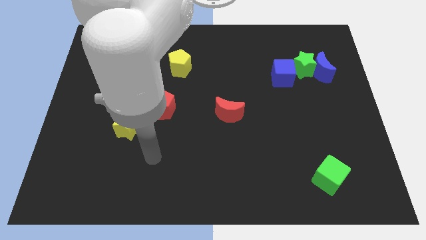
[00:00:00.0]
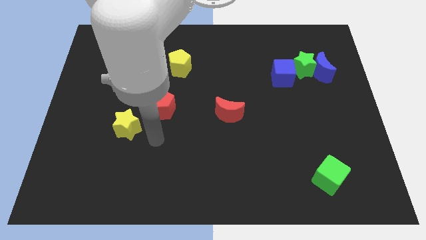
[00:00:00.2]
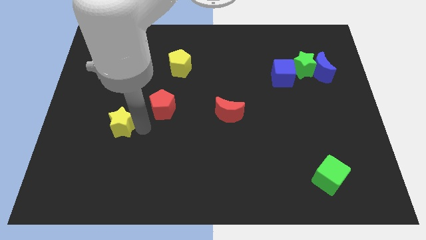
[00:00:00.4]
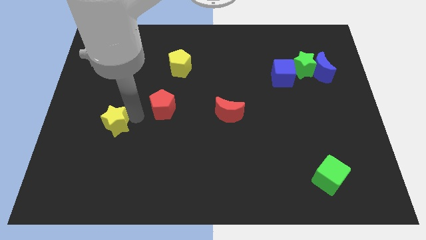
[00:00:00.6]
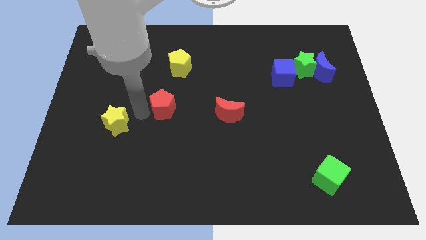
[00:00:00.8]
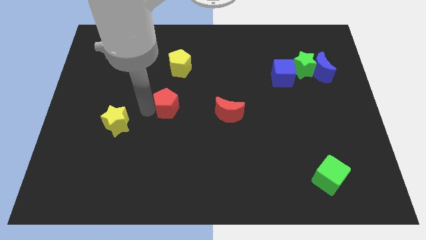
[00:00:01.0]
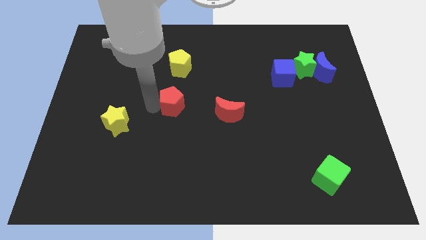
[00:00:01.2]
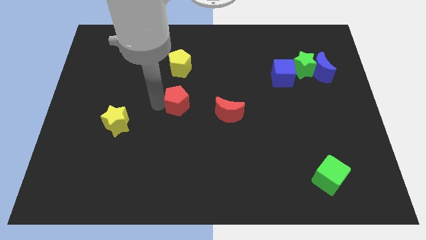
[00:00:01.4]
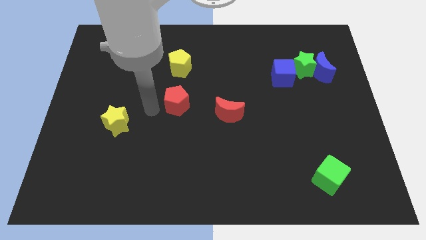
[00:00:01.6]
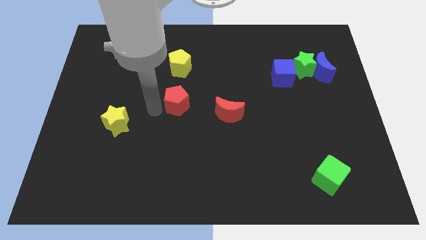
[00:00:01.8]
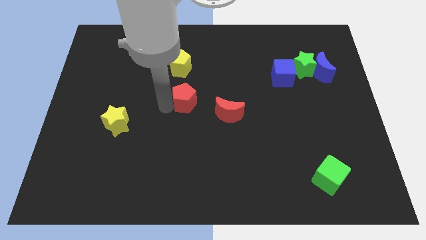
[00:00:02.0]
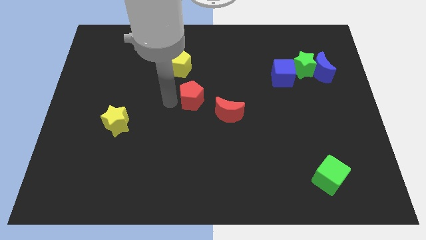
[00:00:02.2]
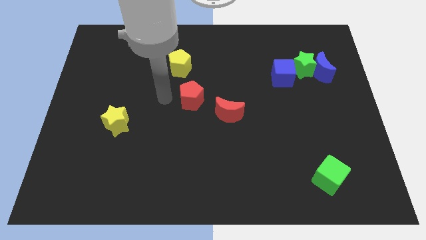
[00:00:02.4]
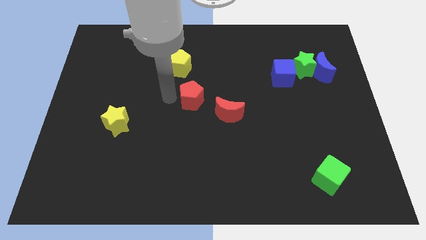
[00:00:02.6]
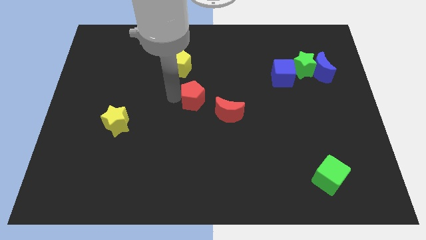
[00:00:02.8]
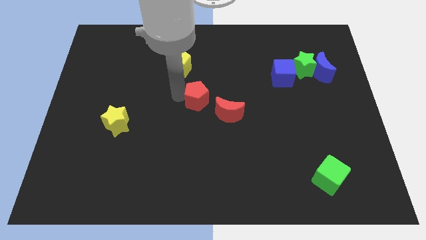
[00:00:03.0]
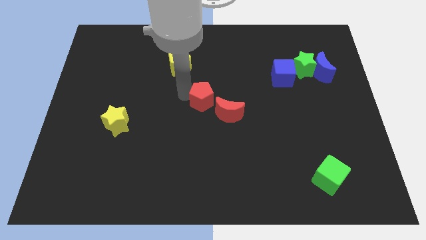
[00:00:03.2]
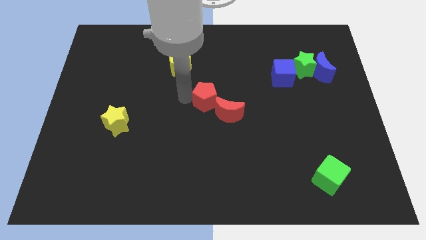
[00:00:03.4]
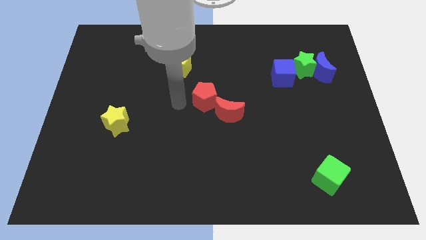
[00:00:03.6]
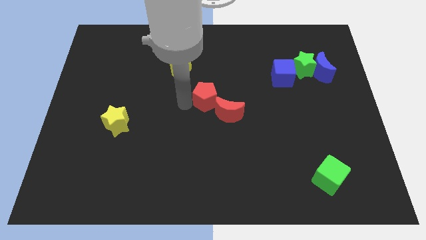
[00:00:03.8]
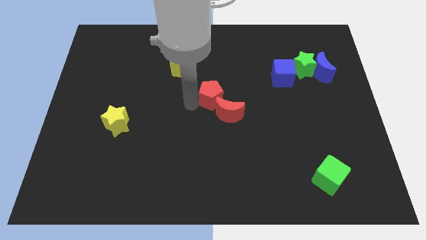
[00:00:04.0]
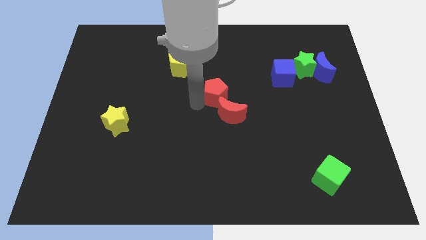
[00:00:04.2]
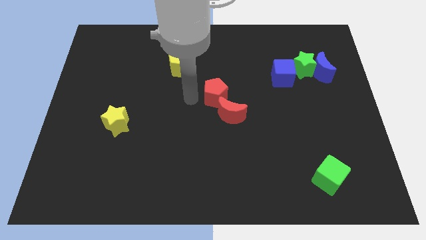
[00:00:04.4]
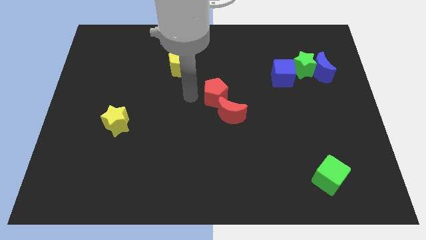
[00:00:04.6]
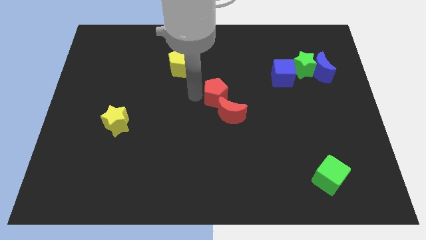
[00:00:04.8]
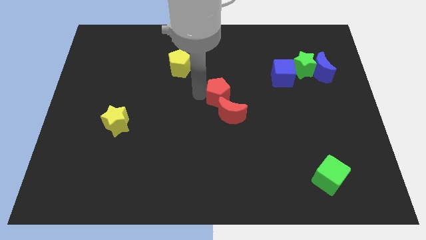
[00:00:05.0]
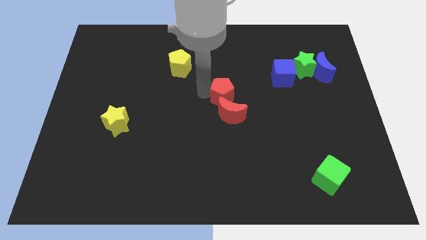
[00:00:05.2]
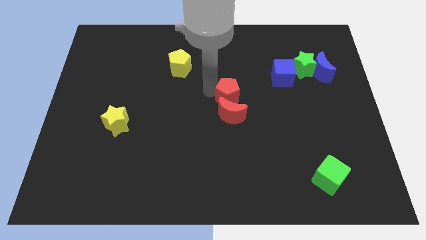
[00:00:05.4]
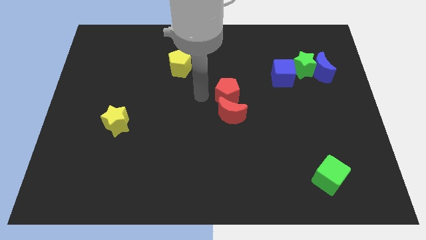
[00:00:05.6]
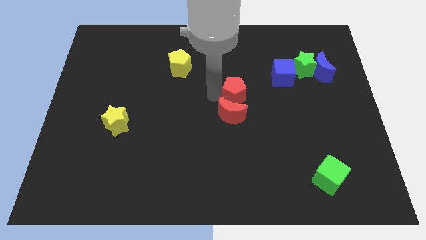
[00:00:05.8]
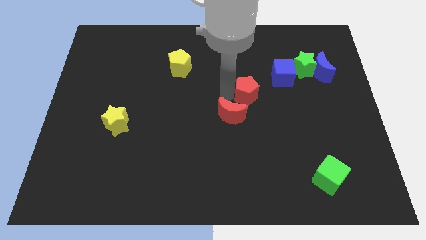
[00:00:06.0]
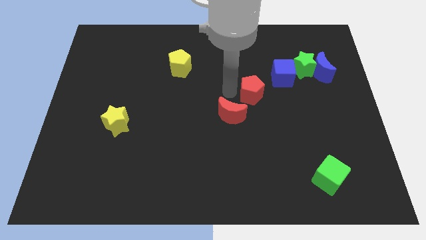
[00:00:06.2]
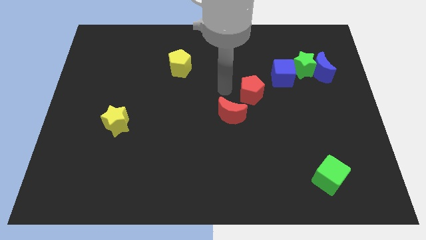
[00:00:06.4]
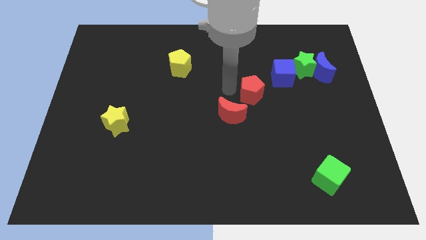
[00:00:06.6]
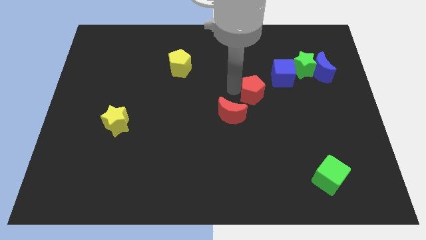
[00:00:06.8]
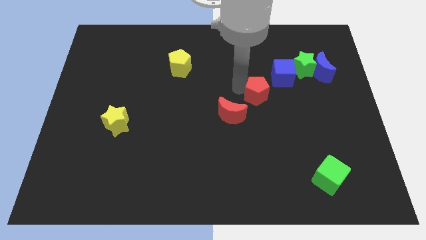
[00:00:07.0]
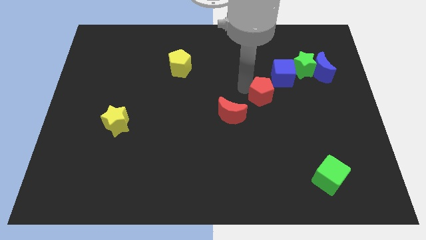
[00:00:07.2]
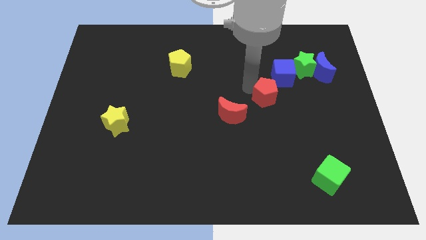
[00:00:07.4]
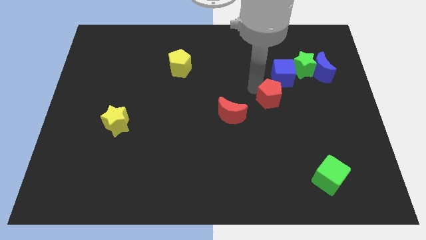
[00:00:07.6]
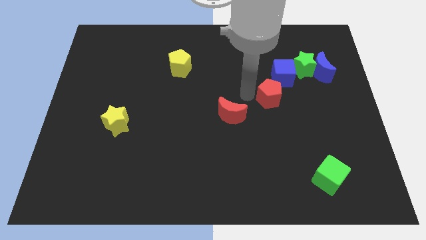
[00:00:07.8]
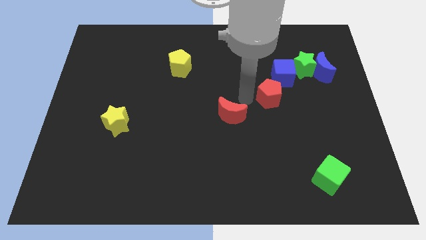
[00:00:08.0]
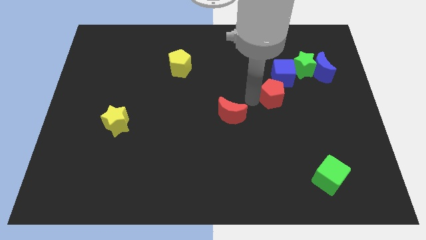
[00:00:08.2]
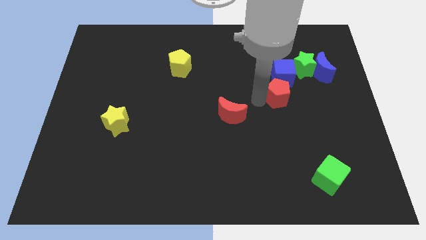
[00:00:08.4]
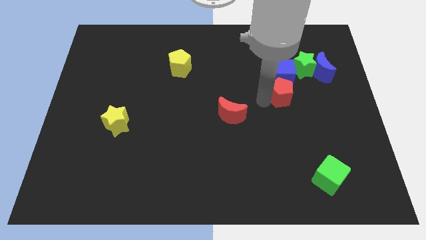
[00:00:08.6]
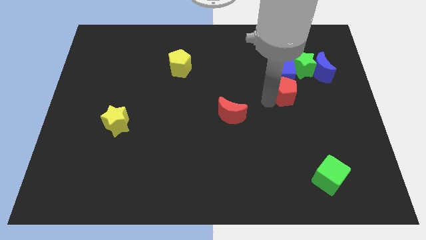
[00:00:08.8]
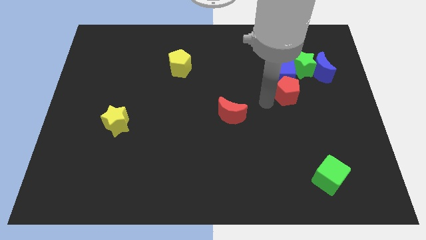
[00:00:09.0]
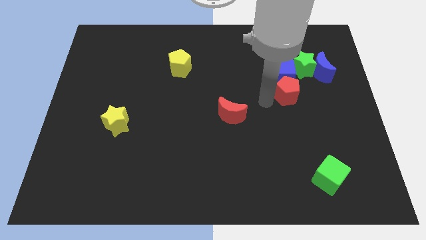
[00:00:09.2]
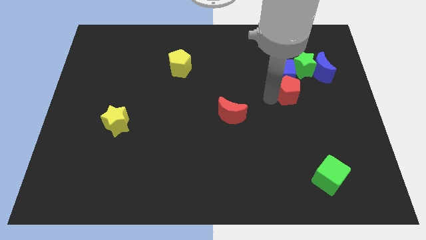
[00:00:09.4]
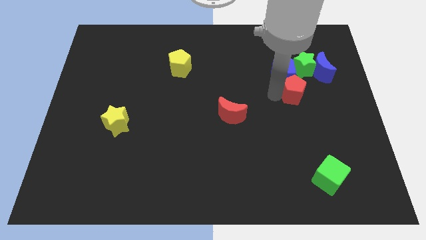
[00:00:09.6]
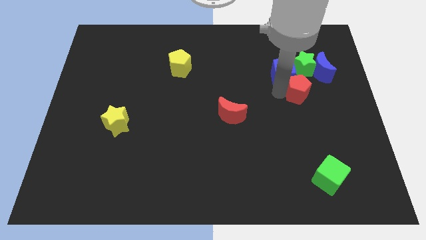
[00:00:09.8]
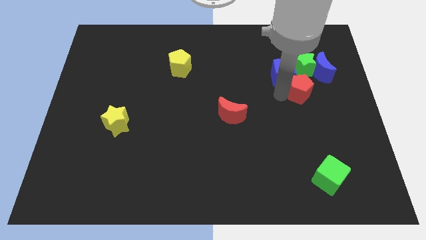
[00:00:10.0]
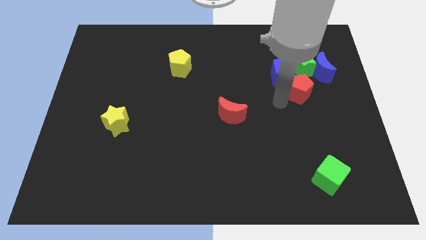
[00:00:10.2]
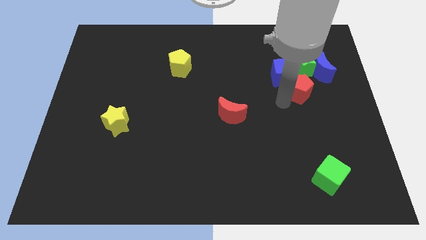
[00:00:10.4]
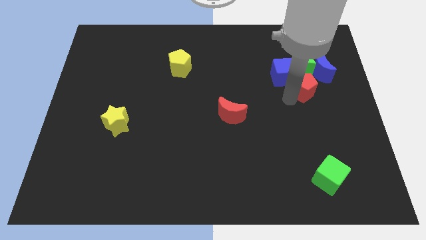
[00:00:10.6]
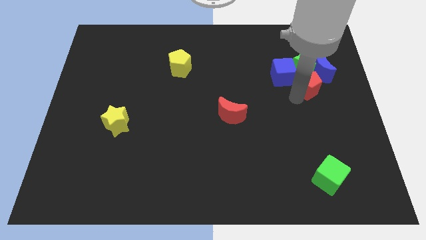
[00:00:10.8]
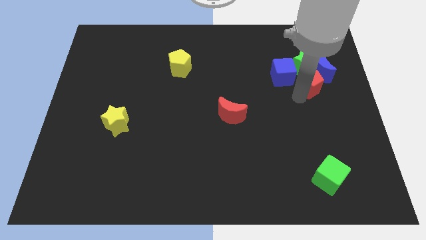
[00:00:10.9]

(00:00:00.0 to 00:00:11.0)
put the red pentagon to the blue moon

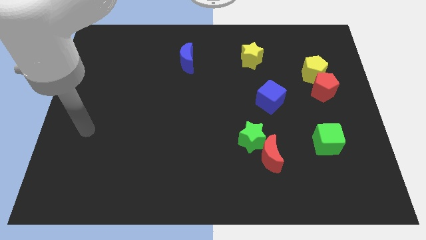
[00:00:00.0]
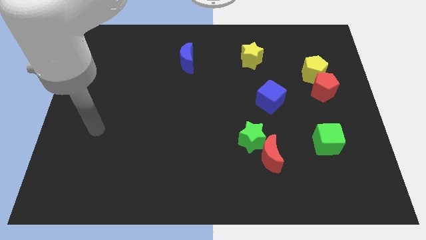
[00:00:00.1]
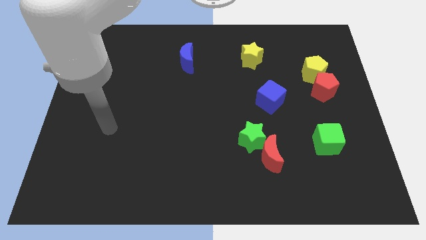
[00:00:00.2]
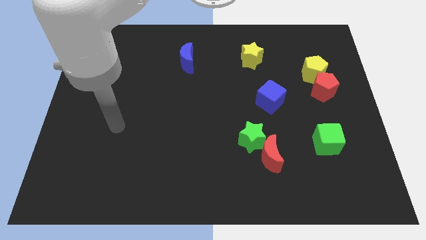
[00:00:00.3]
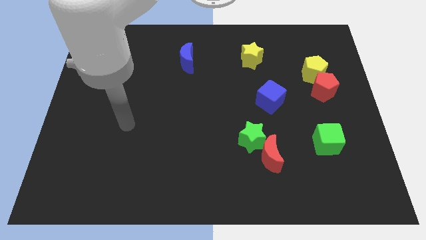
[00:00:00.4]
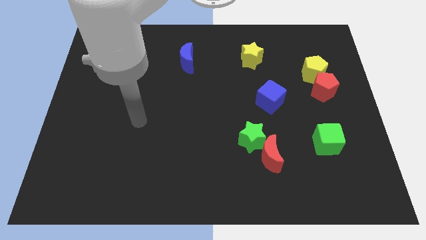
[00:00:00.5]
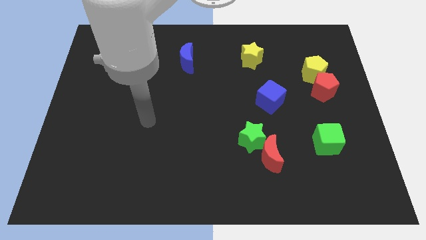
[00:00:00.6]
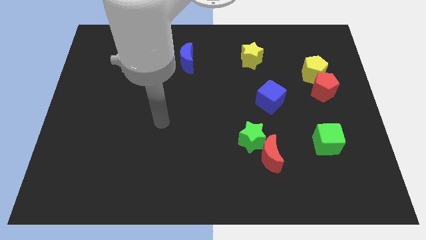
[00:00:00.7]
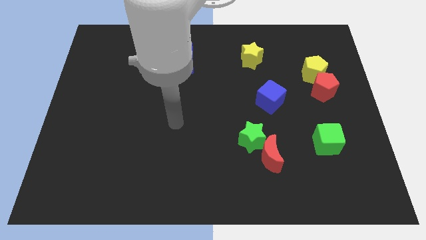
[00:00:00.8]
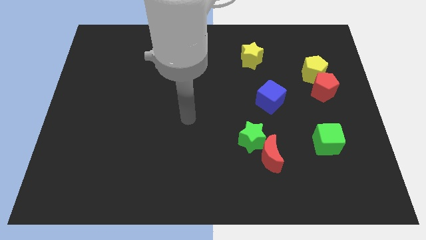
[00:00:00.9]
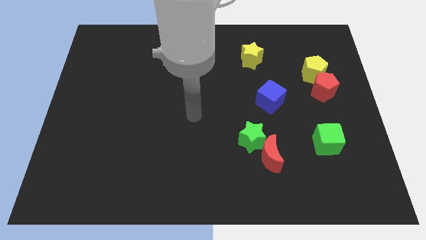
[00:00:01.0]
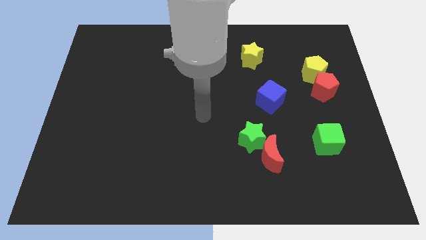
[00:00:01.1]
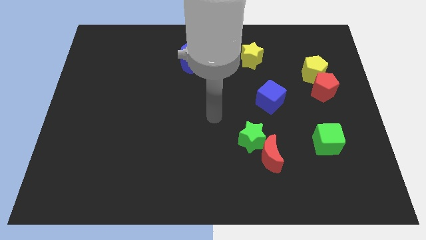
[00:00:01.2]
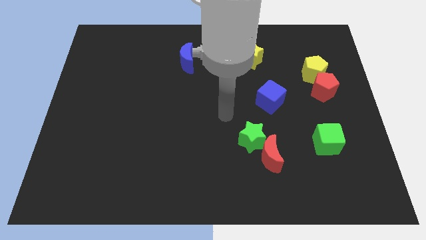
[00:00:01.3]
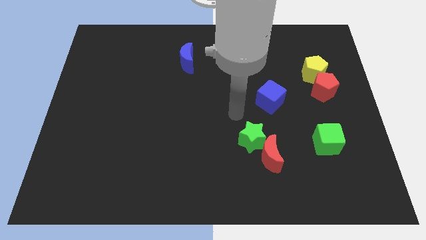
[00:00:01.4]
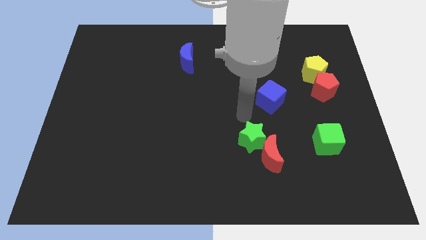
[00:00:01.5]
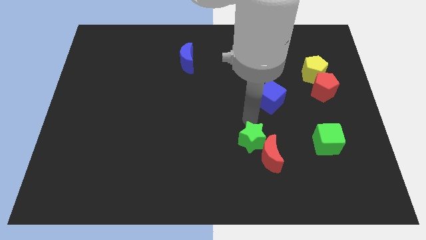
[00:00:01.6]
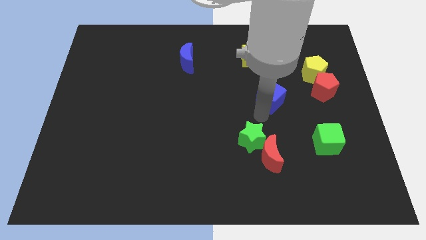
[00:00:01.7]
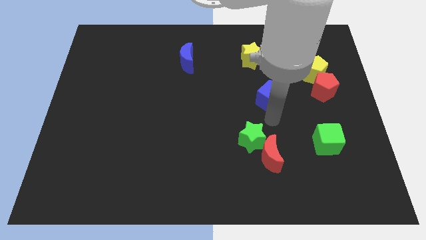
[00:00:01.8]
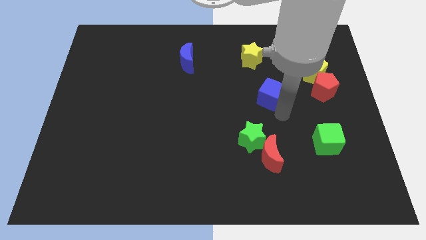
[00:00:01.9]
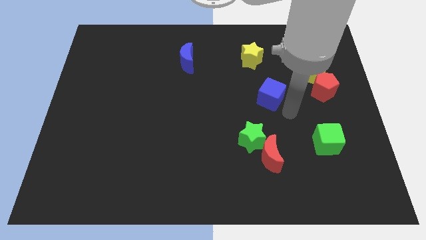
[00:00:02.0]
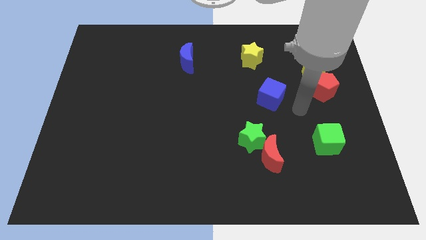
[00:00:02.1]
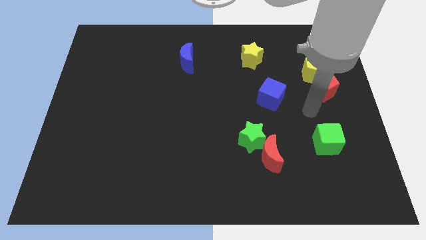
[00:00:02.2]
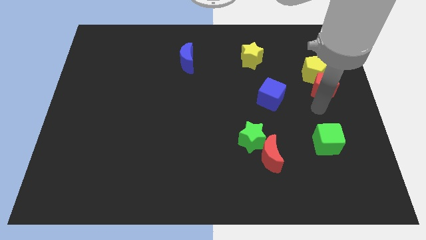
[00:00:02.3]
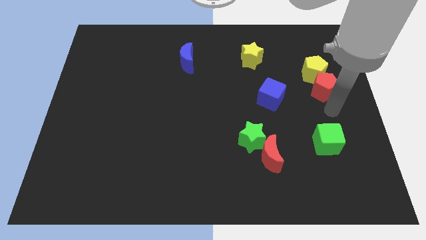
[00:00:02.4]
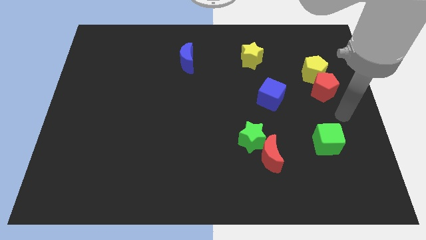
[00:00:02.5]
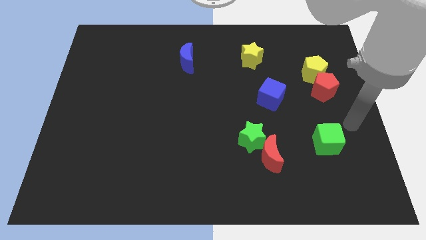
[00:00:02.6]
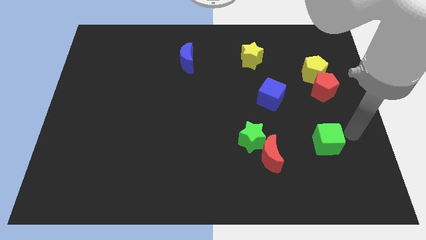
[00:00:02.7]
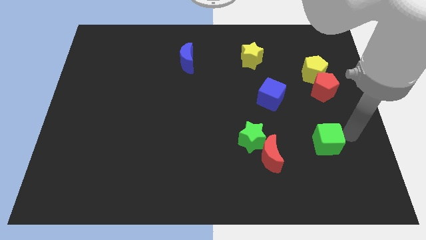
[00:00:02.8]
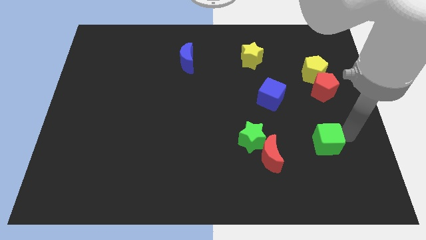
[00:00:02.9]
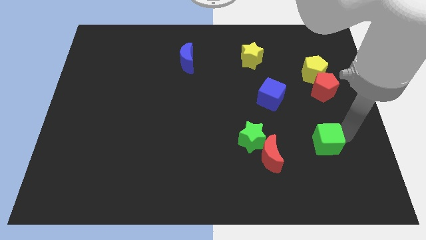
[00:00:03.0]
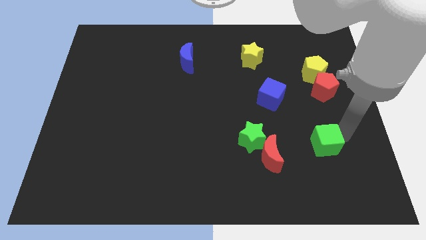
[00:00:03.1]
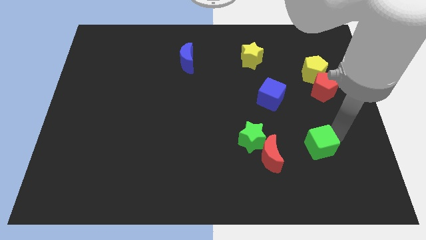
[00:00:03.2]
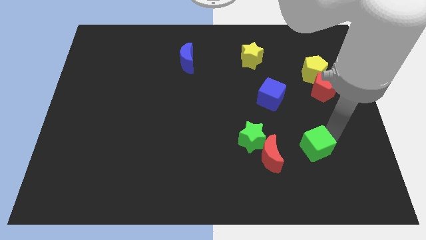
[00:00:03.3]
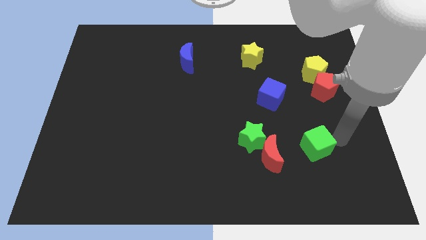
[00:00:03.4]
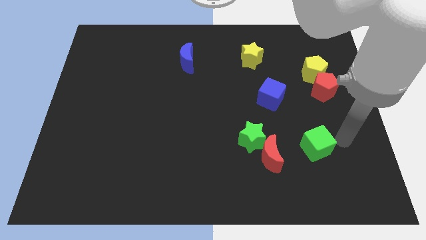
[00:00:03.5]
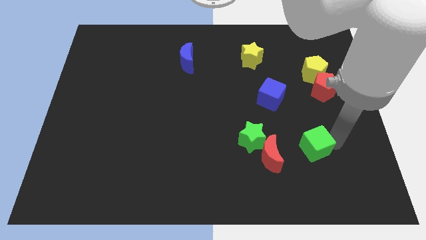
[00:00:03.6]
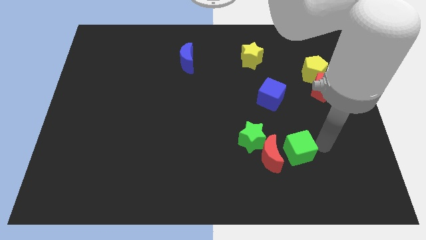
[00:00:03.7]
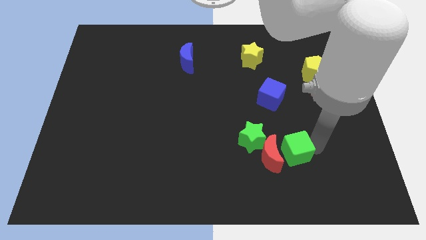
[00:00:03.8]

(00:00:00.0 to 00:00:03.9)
put the green cube next to the red moon
